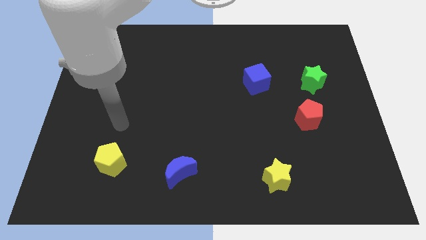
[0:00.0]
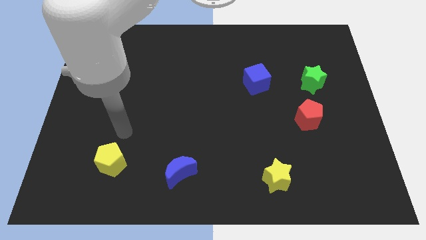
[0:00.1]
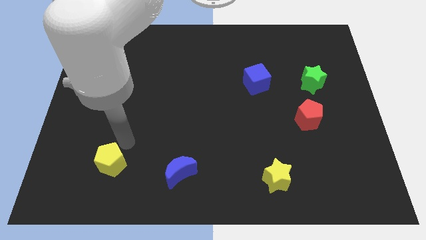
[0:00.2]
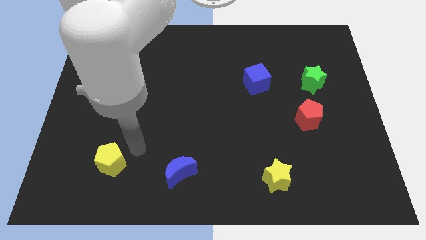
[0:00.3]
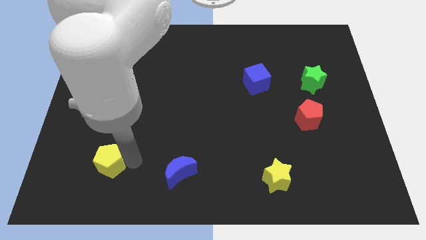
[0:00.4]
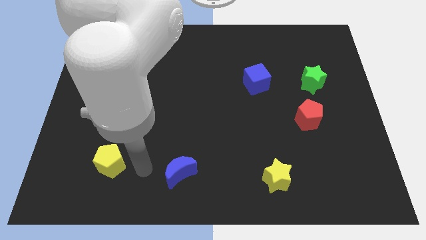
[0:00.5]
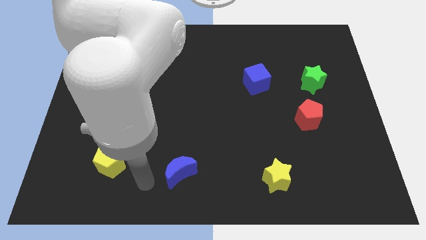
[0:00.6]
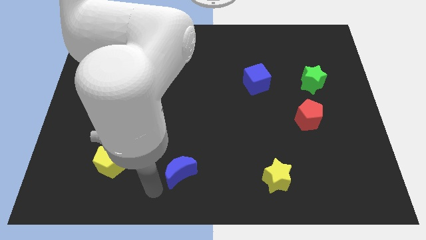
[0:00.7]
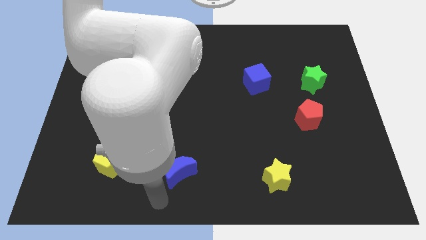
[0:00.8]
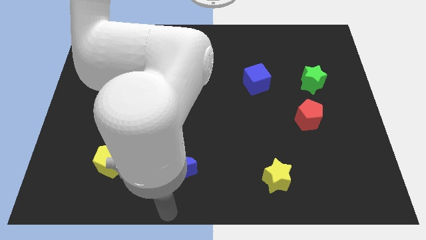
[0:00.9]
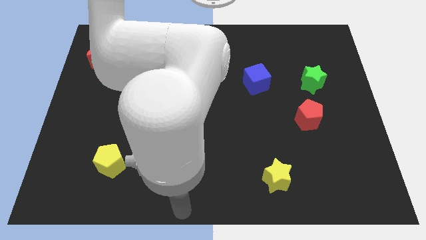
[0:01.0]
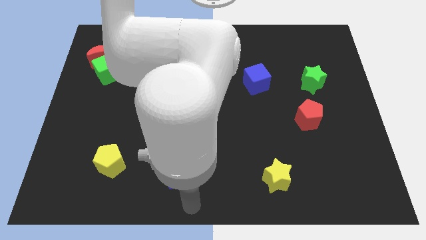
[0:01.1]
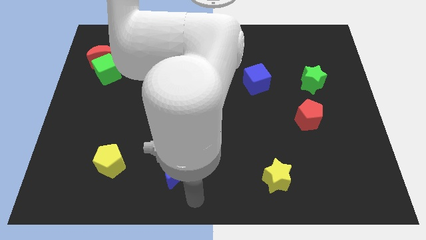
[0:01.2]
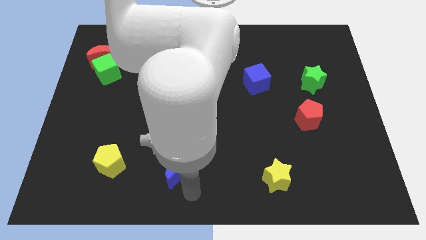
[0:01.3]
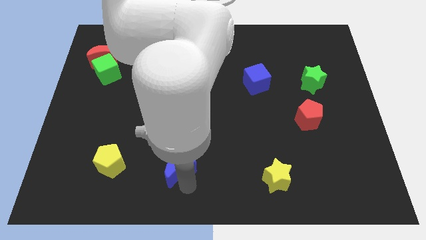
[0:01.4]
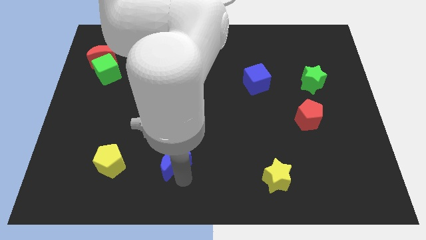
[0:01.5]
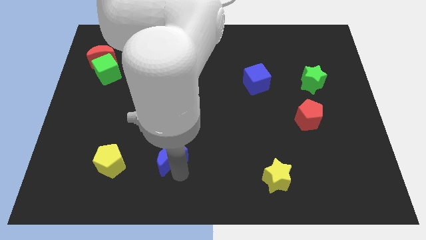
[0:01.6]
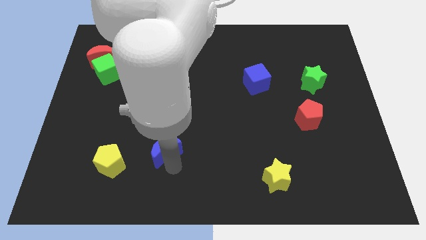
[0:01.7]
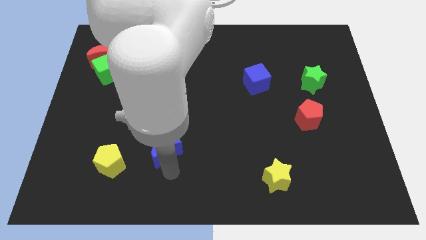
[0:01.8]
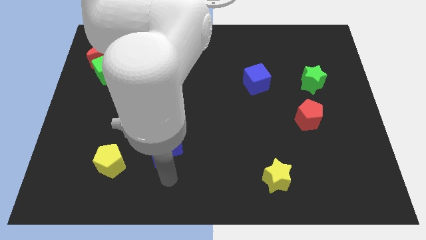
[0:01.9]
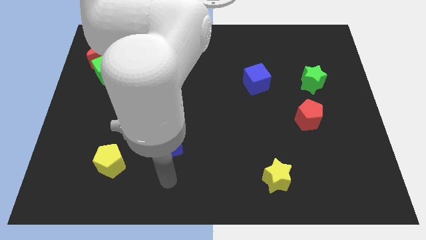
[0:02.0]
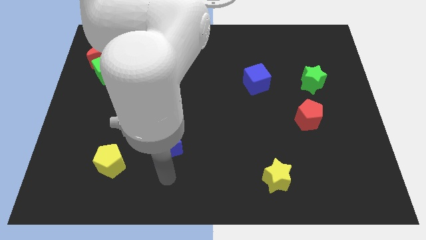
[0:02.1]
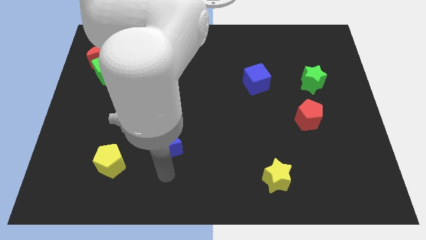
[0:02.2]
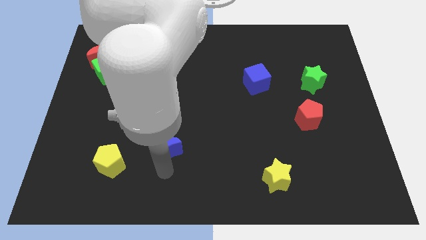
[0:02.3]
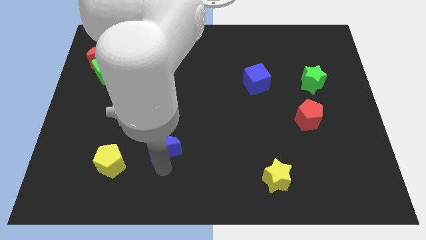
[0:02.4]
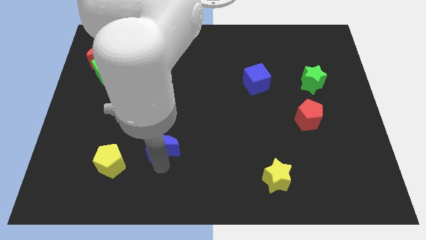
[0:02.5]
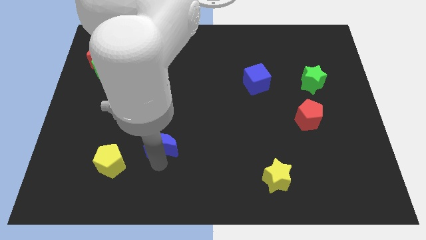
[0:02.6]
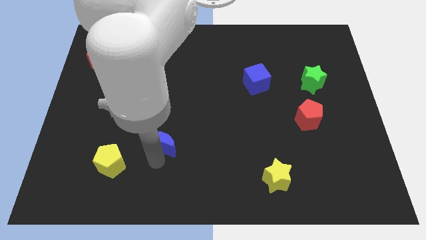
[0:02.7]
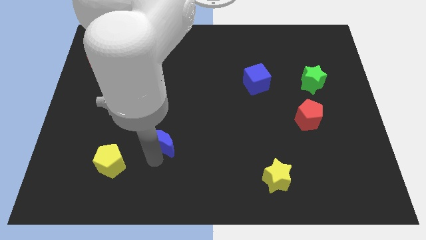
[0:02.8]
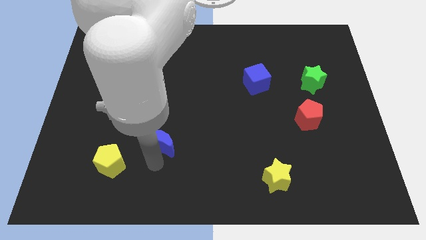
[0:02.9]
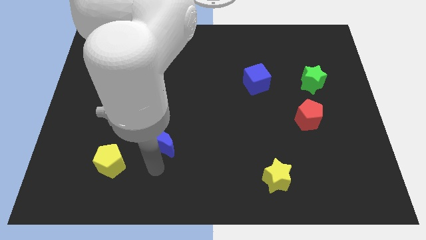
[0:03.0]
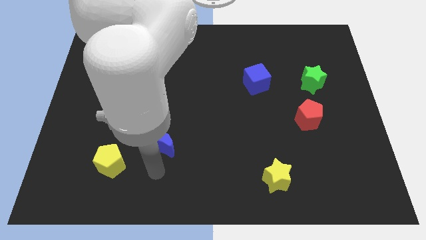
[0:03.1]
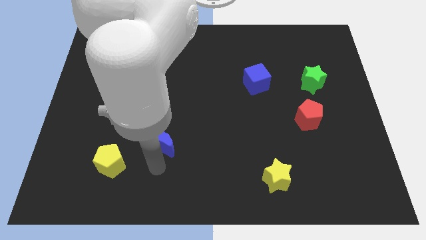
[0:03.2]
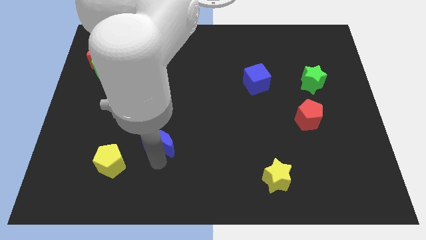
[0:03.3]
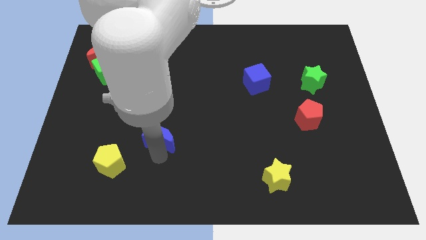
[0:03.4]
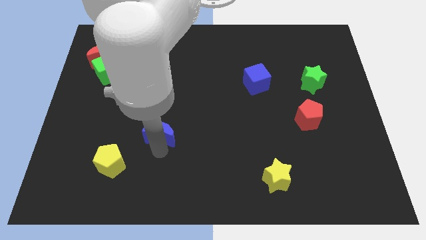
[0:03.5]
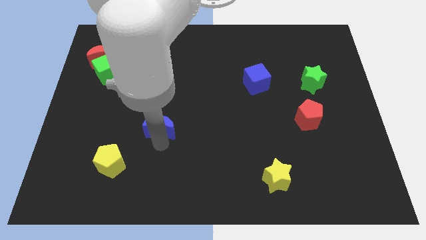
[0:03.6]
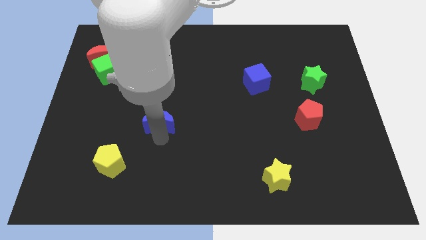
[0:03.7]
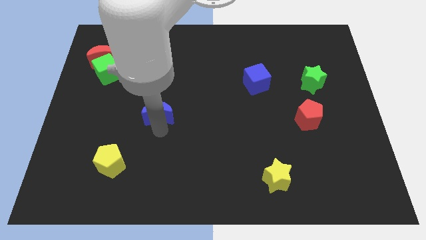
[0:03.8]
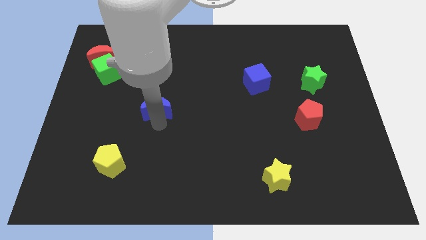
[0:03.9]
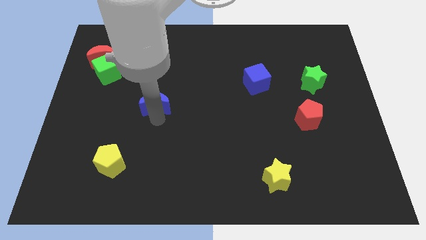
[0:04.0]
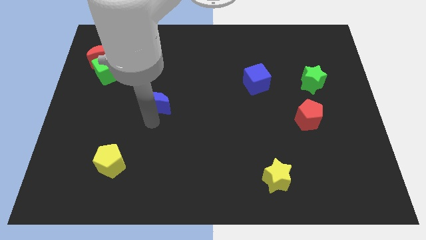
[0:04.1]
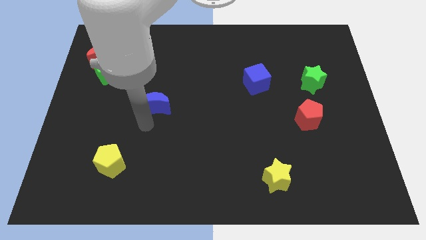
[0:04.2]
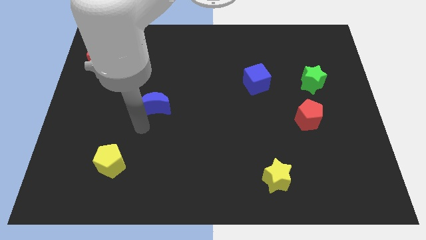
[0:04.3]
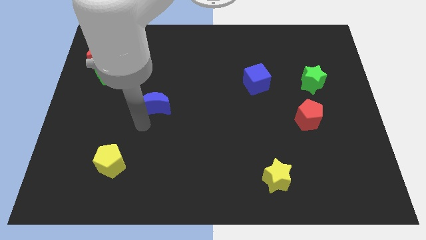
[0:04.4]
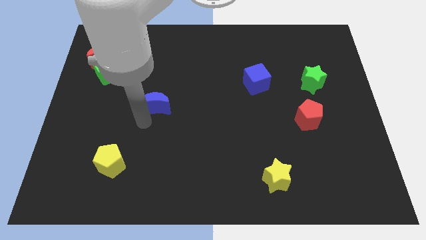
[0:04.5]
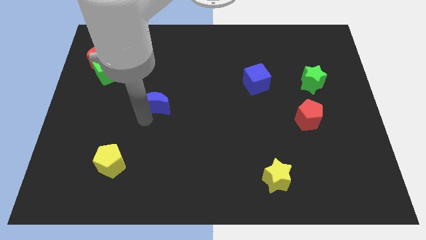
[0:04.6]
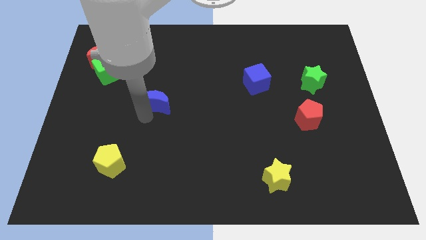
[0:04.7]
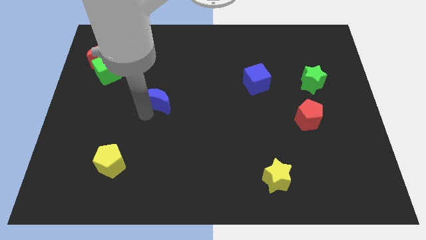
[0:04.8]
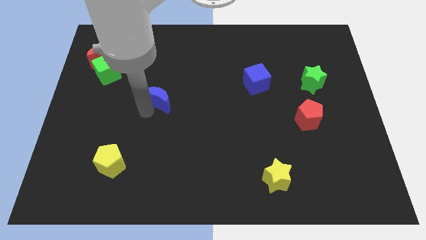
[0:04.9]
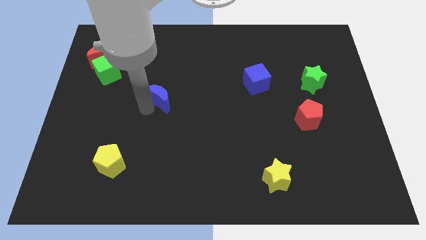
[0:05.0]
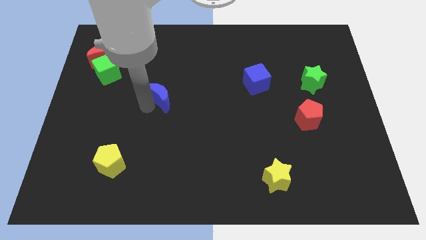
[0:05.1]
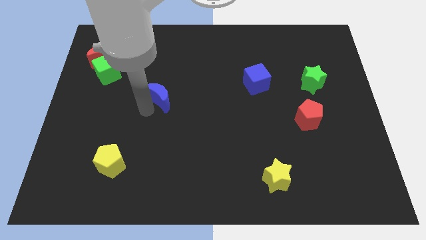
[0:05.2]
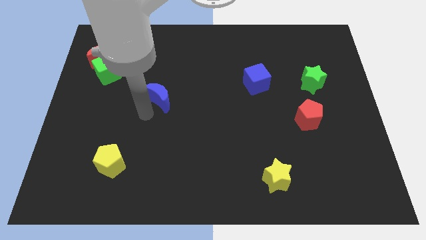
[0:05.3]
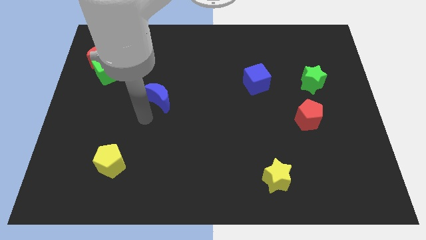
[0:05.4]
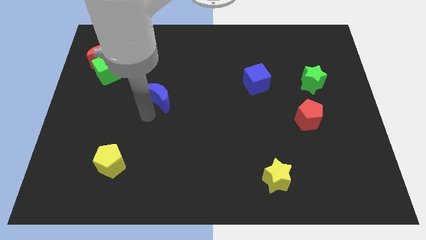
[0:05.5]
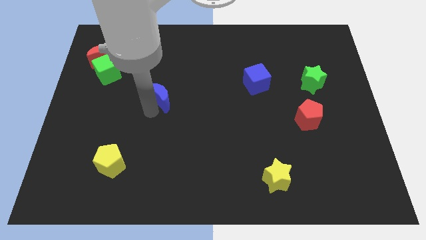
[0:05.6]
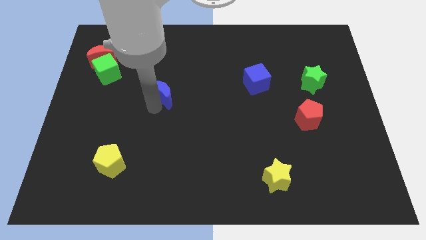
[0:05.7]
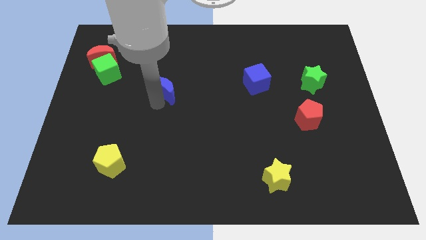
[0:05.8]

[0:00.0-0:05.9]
move the blue moon up

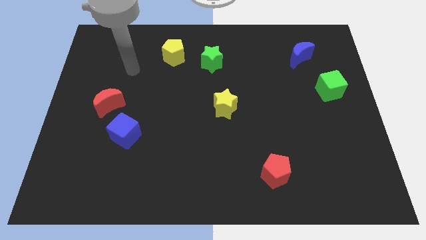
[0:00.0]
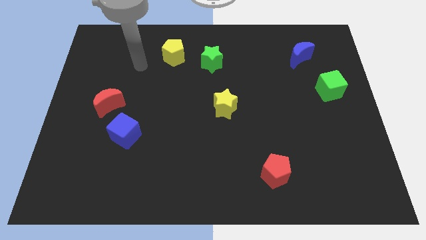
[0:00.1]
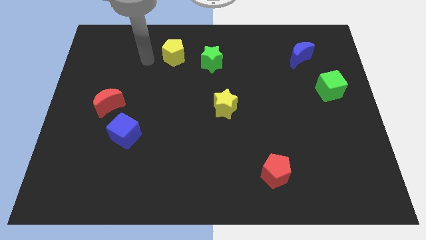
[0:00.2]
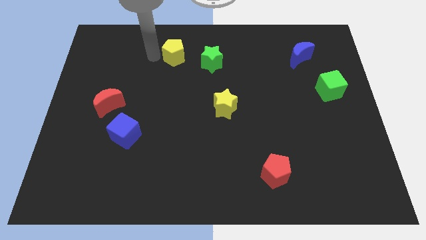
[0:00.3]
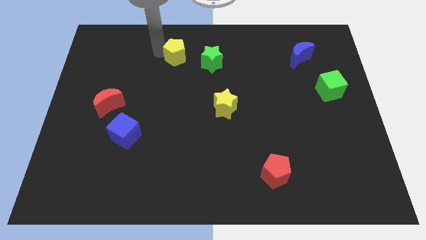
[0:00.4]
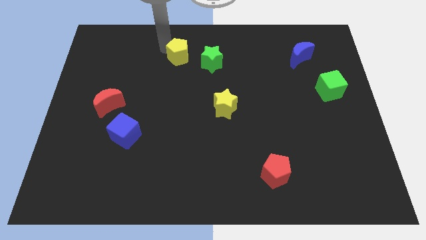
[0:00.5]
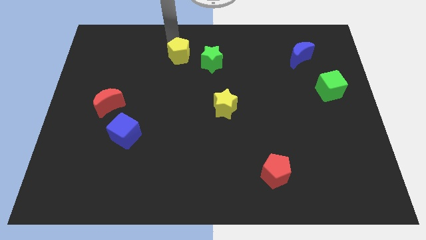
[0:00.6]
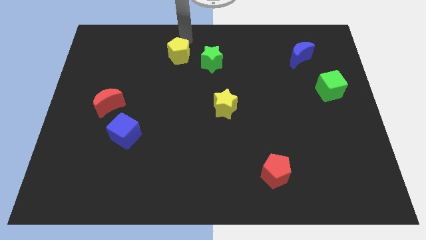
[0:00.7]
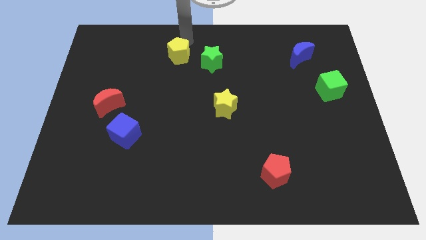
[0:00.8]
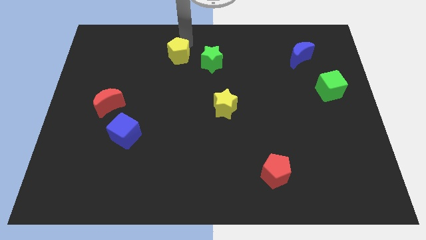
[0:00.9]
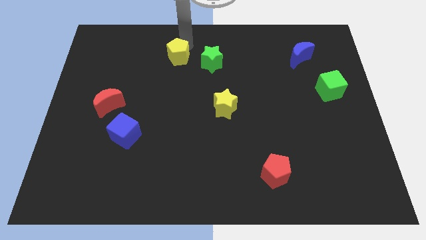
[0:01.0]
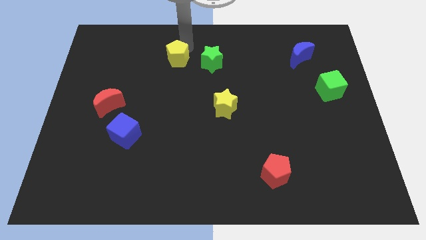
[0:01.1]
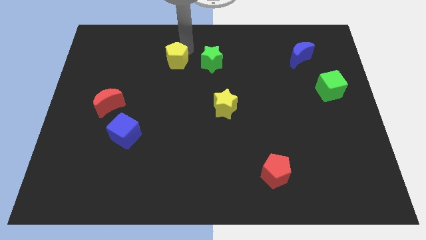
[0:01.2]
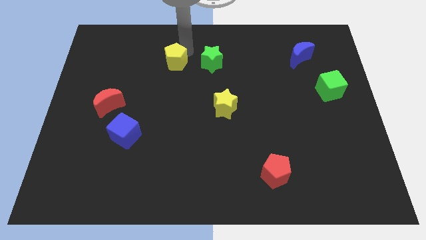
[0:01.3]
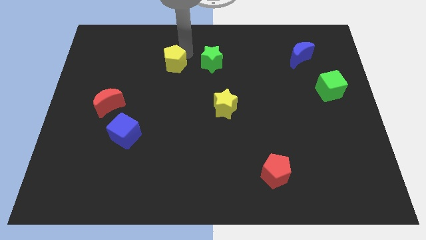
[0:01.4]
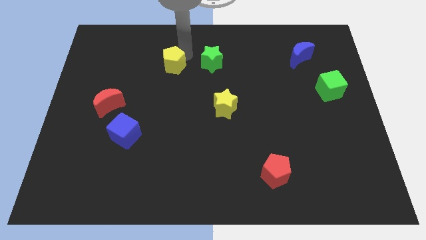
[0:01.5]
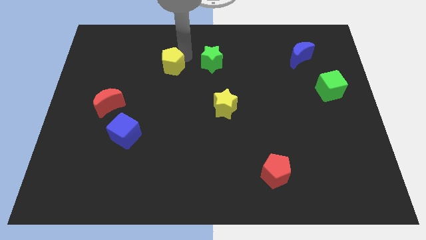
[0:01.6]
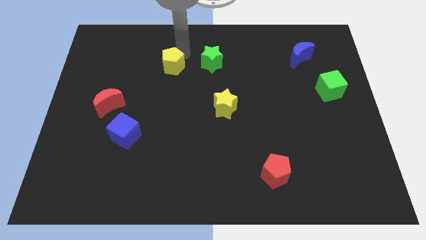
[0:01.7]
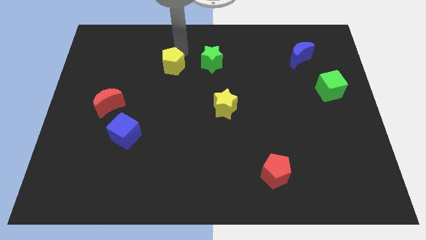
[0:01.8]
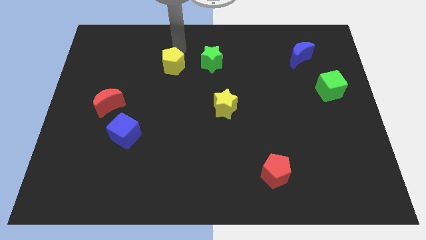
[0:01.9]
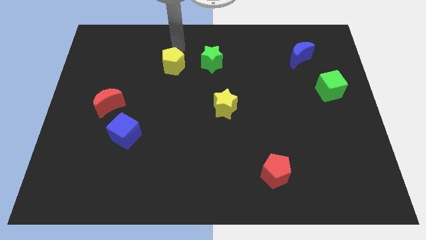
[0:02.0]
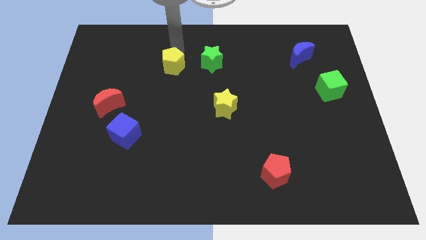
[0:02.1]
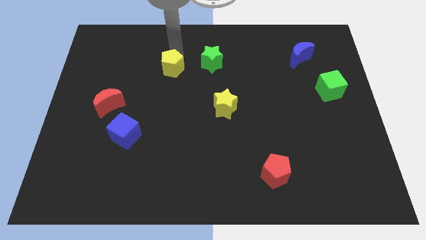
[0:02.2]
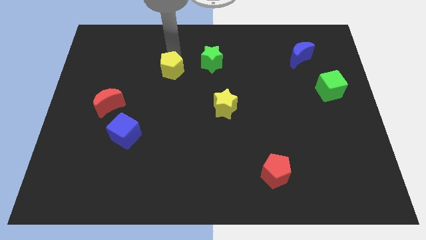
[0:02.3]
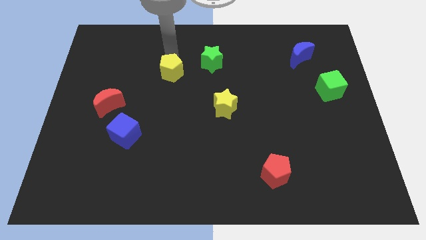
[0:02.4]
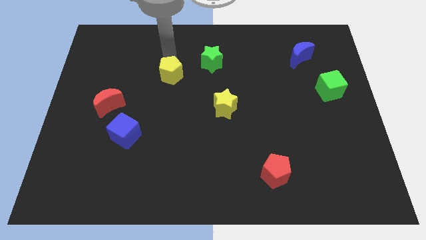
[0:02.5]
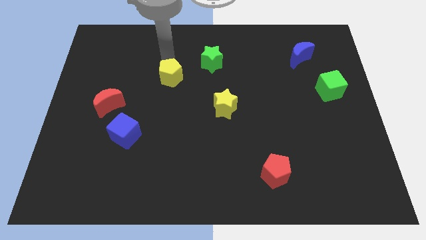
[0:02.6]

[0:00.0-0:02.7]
slightly move the yellow pentagon downwards
